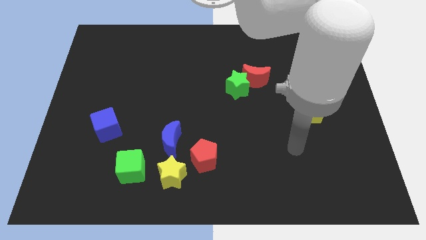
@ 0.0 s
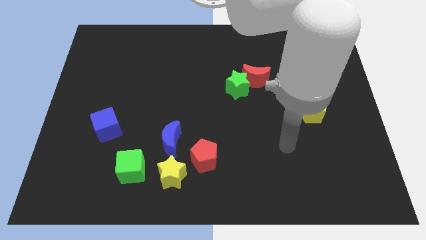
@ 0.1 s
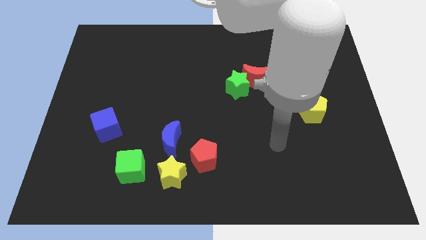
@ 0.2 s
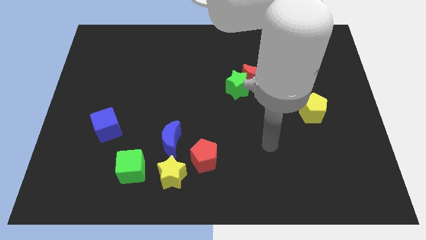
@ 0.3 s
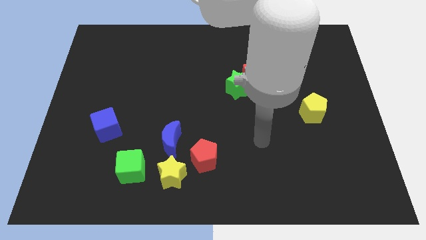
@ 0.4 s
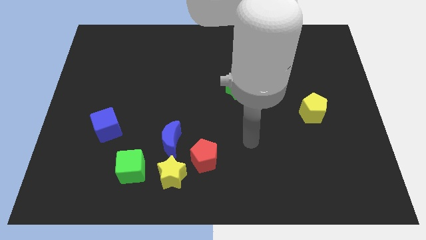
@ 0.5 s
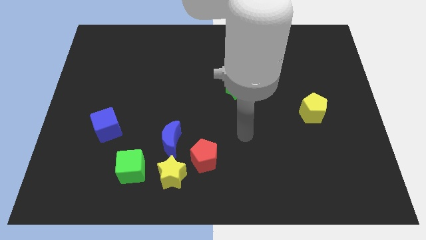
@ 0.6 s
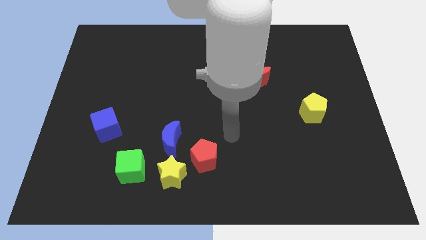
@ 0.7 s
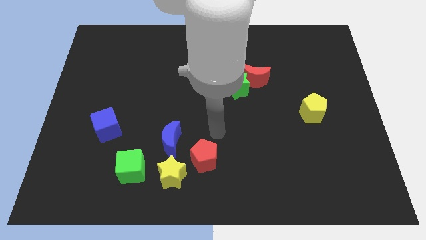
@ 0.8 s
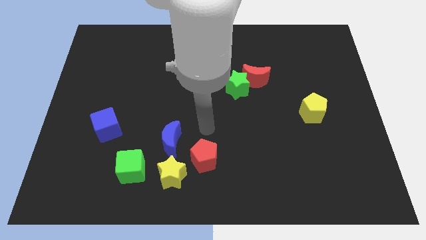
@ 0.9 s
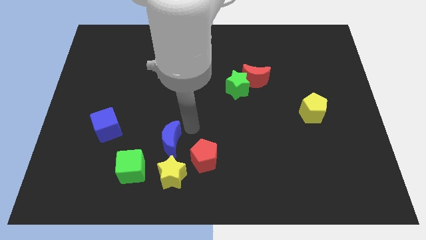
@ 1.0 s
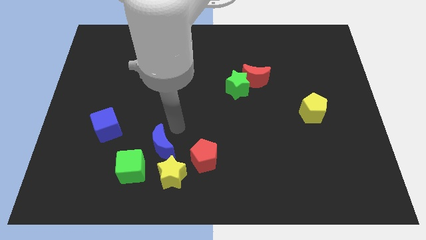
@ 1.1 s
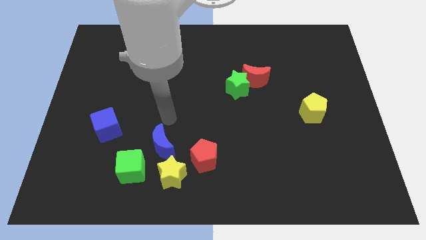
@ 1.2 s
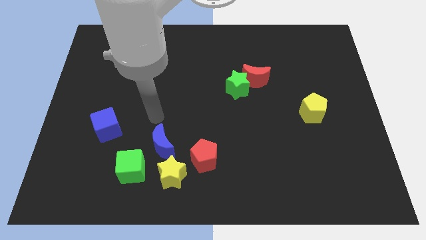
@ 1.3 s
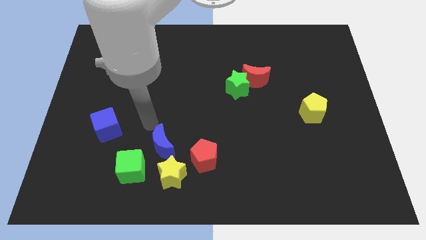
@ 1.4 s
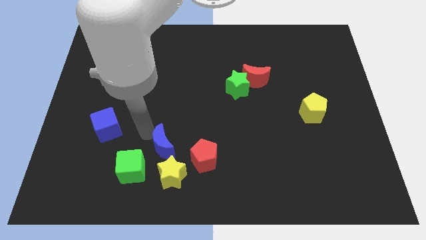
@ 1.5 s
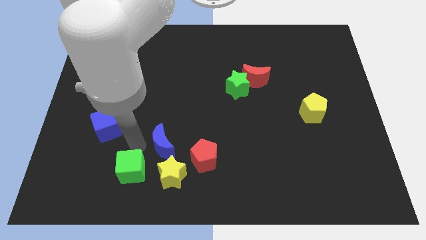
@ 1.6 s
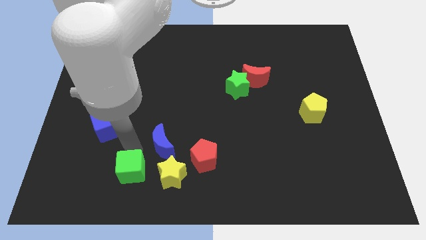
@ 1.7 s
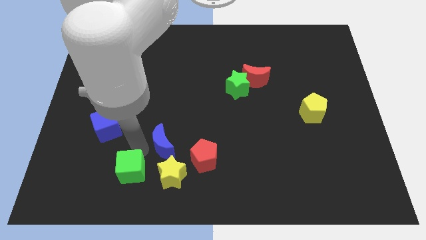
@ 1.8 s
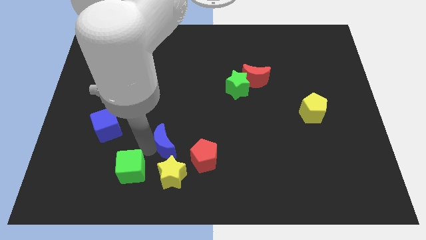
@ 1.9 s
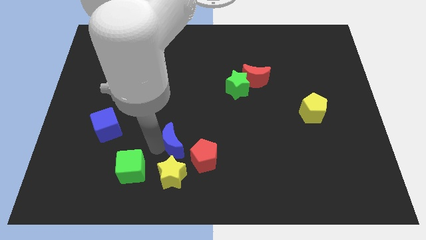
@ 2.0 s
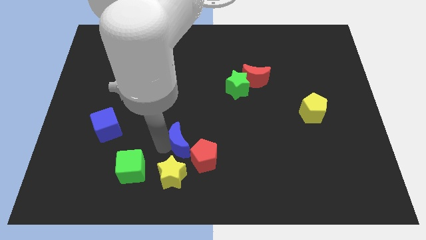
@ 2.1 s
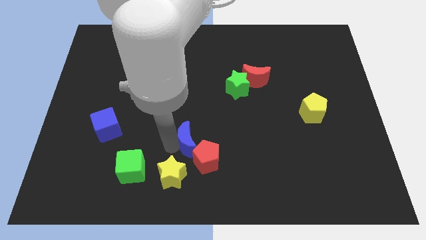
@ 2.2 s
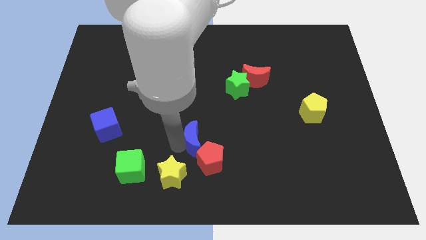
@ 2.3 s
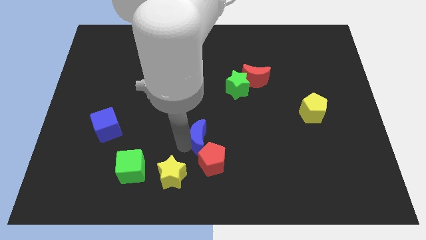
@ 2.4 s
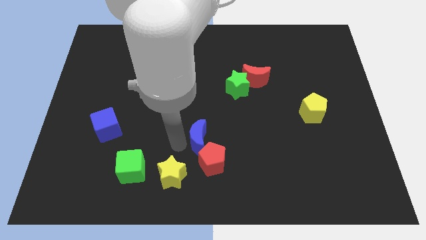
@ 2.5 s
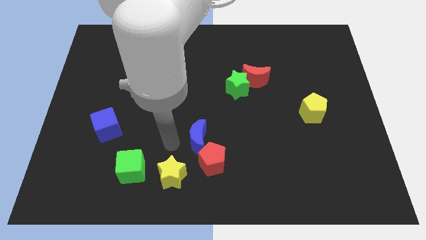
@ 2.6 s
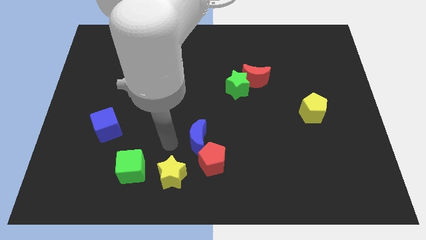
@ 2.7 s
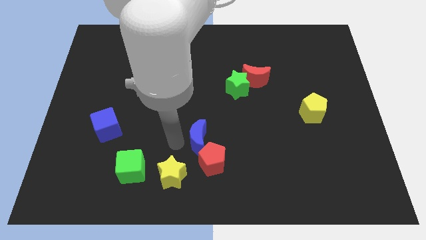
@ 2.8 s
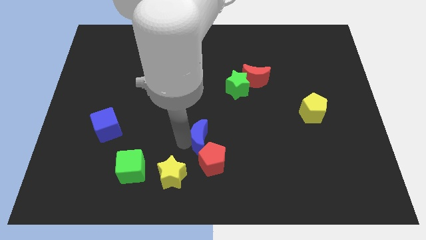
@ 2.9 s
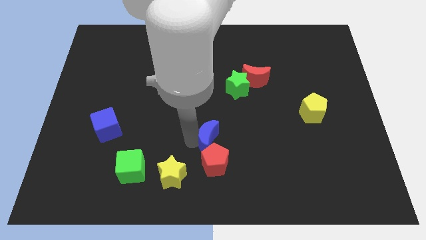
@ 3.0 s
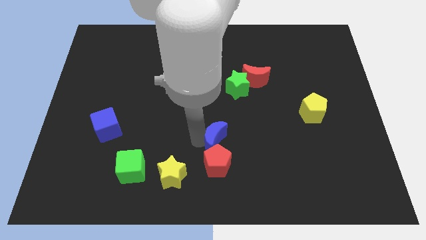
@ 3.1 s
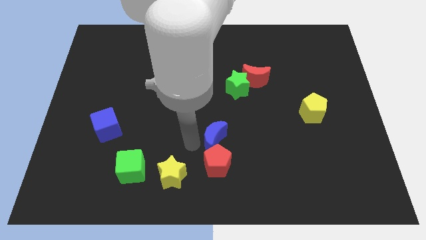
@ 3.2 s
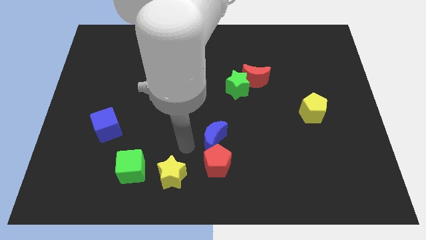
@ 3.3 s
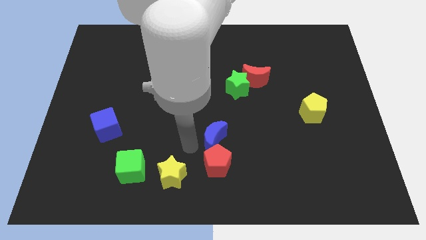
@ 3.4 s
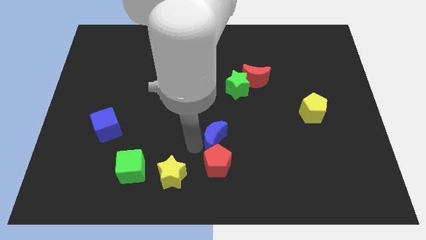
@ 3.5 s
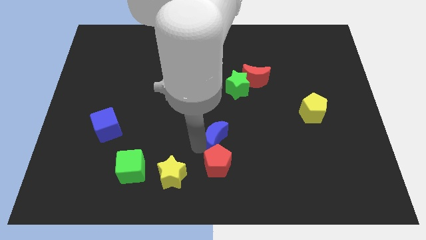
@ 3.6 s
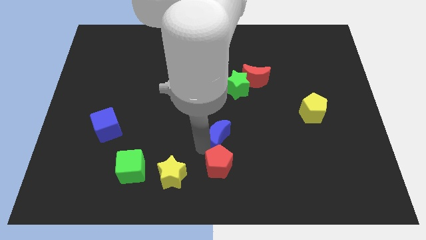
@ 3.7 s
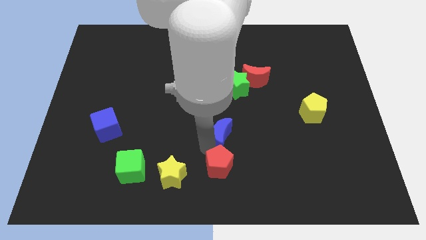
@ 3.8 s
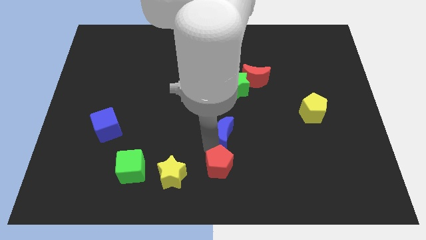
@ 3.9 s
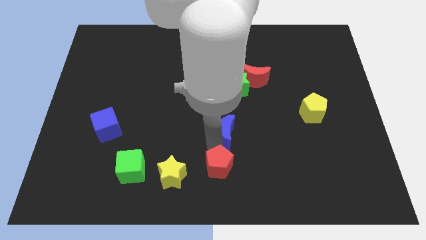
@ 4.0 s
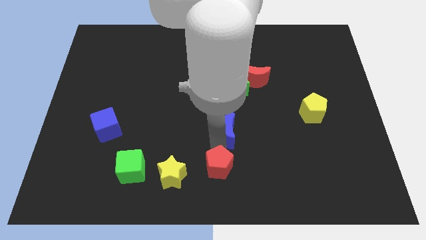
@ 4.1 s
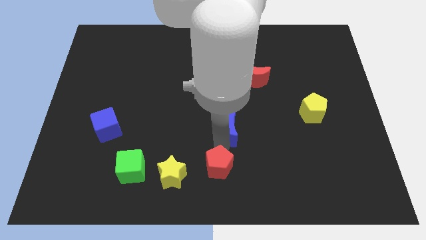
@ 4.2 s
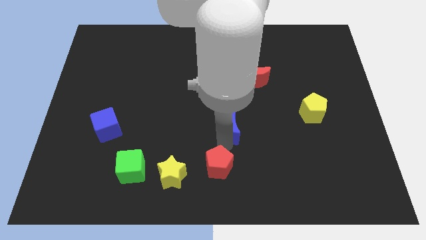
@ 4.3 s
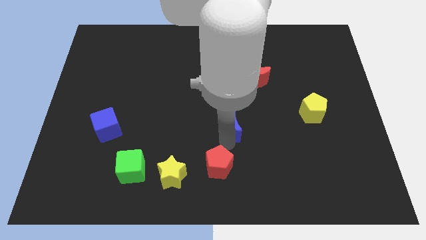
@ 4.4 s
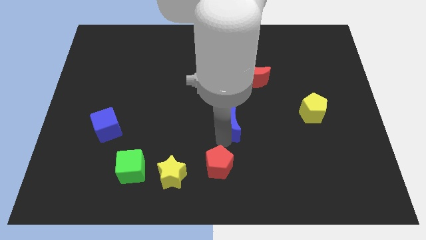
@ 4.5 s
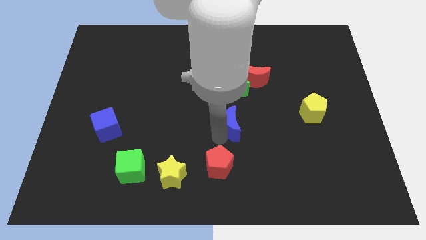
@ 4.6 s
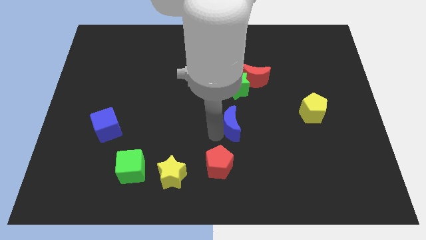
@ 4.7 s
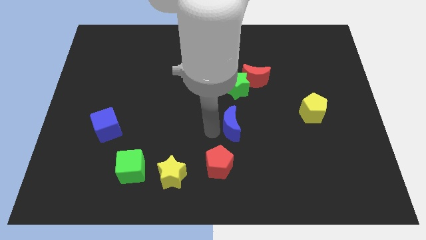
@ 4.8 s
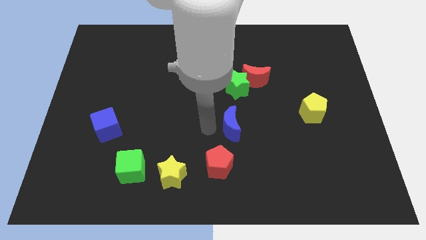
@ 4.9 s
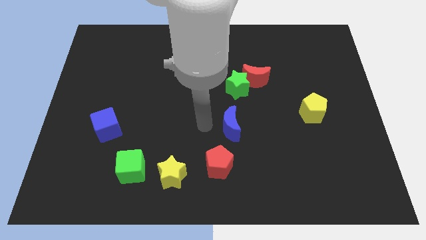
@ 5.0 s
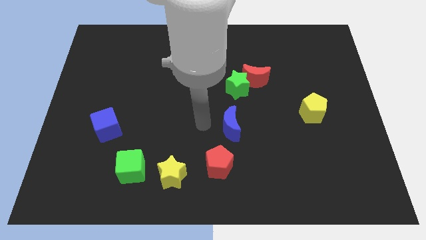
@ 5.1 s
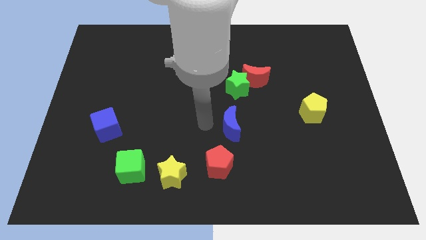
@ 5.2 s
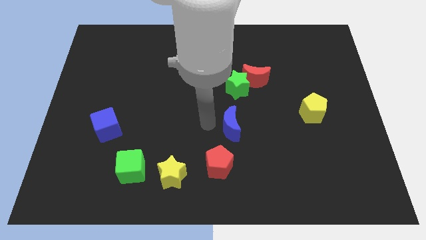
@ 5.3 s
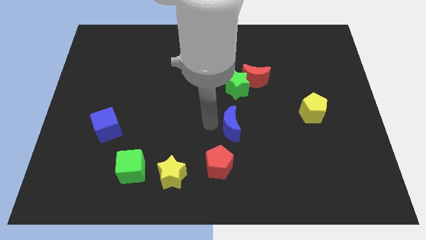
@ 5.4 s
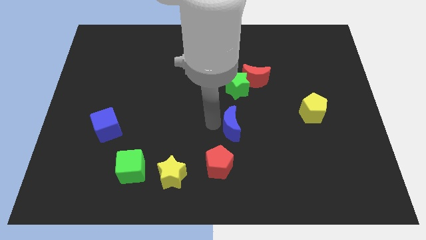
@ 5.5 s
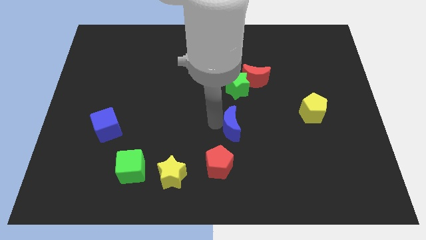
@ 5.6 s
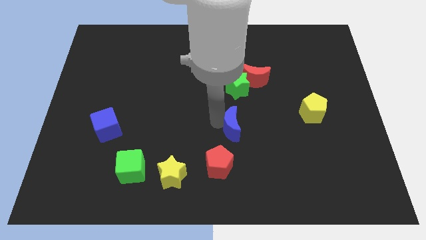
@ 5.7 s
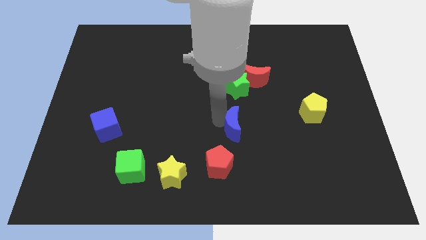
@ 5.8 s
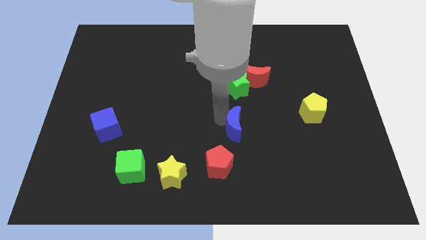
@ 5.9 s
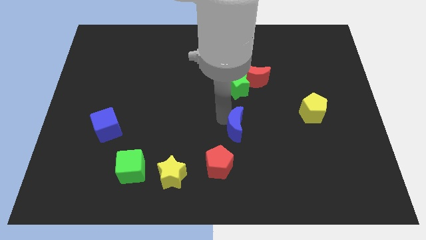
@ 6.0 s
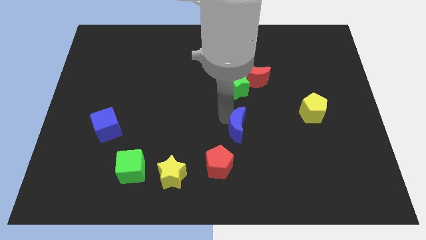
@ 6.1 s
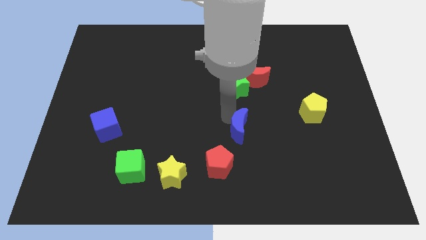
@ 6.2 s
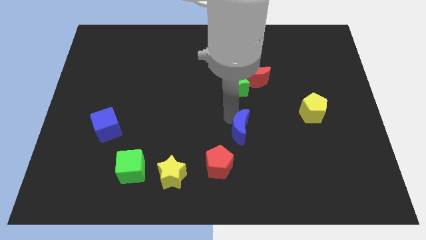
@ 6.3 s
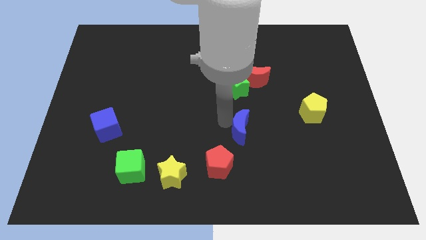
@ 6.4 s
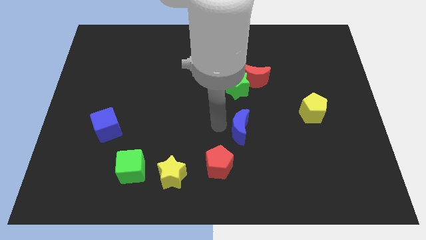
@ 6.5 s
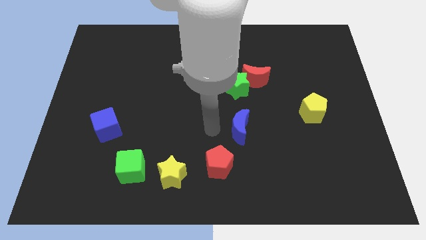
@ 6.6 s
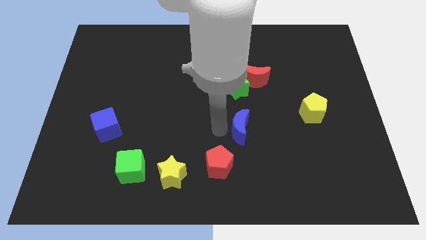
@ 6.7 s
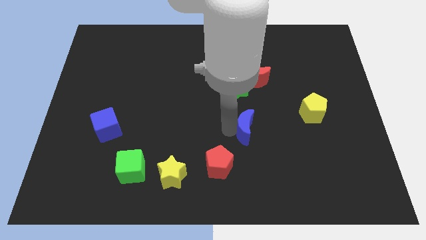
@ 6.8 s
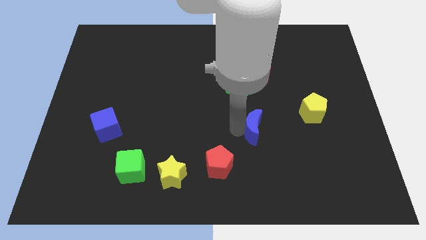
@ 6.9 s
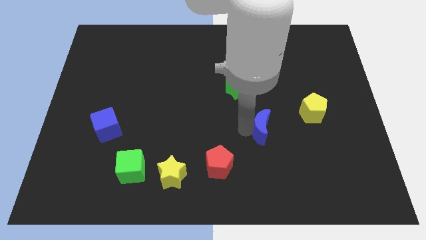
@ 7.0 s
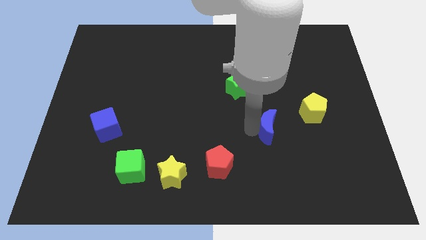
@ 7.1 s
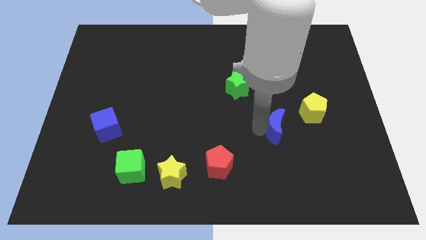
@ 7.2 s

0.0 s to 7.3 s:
move the blue moon to the bottom left side of the yellow pentagon
